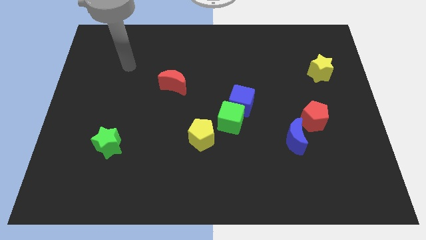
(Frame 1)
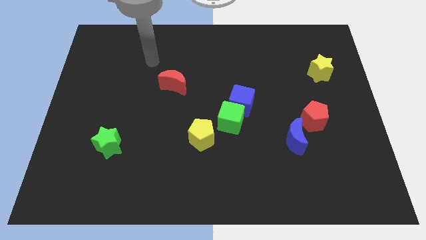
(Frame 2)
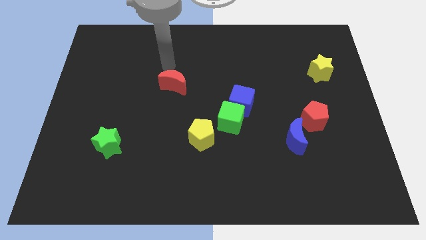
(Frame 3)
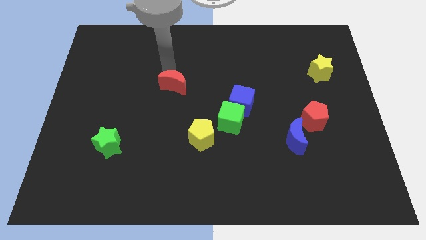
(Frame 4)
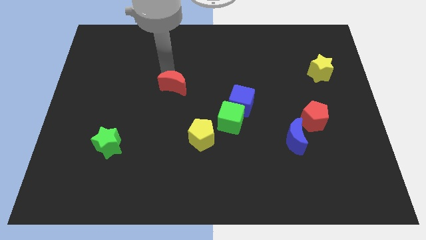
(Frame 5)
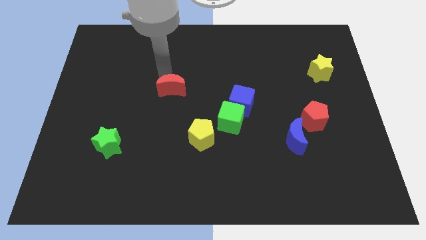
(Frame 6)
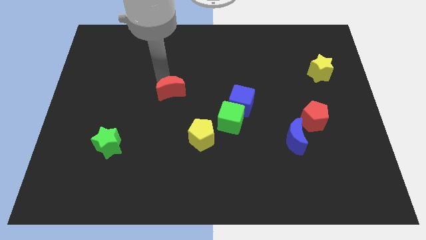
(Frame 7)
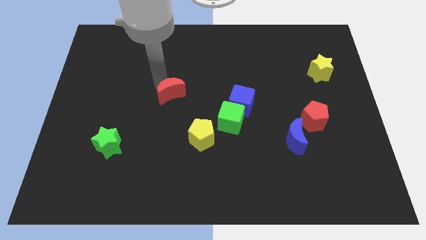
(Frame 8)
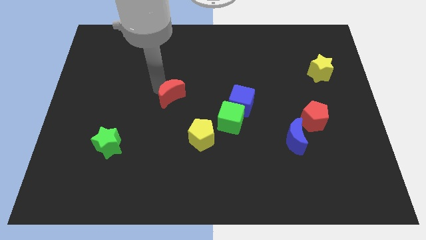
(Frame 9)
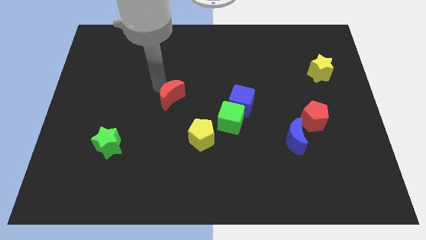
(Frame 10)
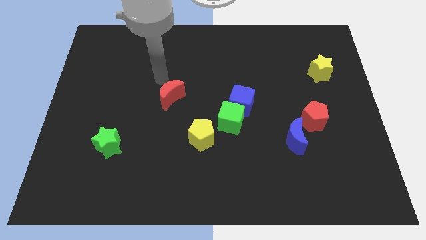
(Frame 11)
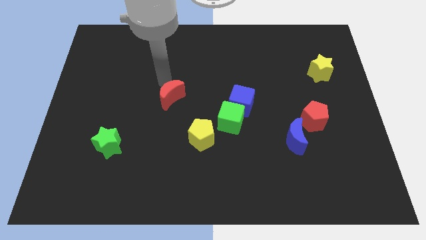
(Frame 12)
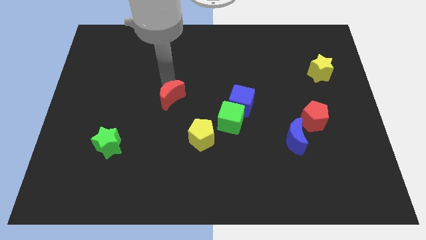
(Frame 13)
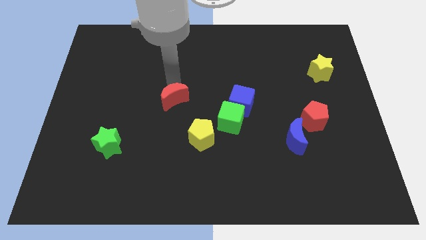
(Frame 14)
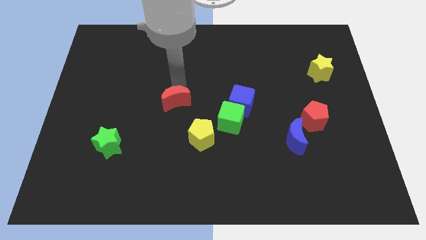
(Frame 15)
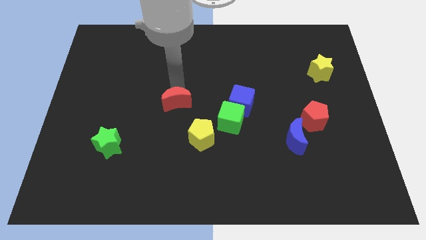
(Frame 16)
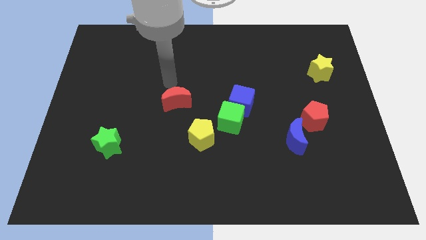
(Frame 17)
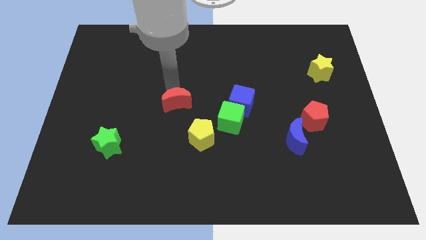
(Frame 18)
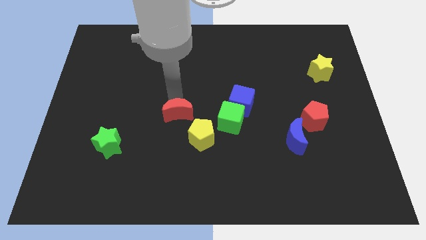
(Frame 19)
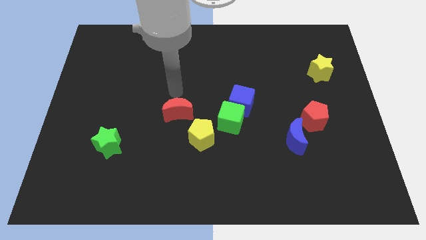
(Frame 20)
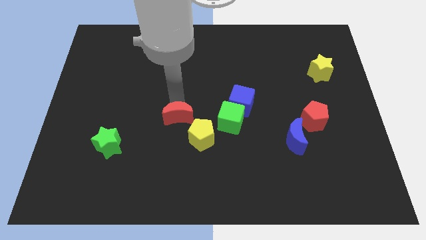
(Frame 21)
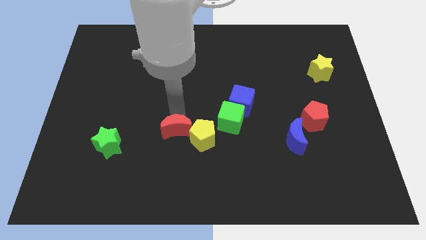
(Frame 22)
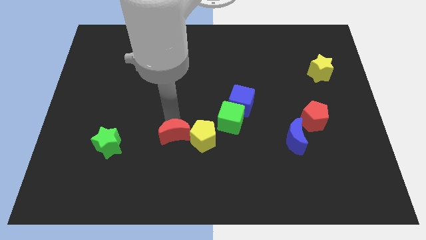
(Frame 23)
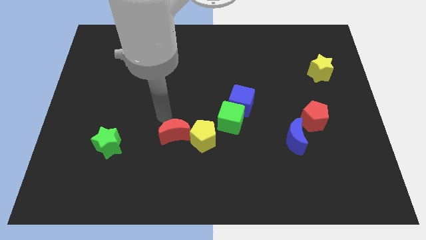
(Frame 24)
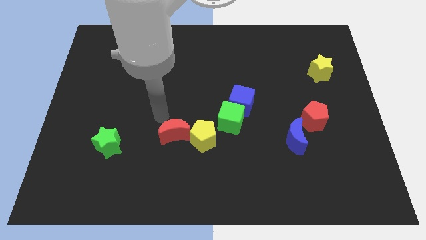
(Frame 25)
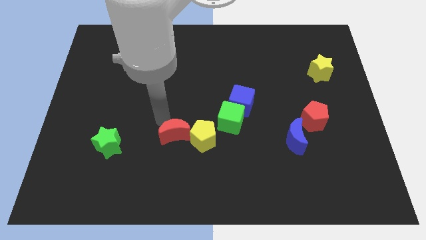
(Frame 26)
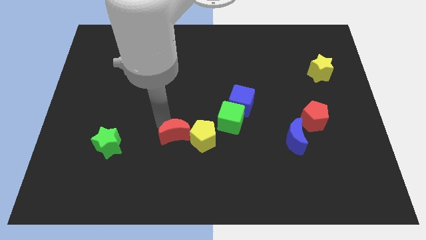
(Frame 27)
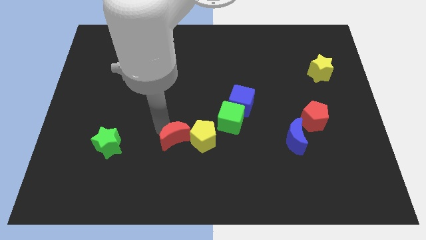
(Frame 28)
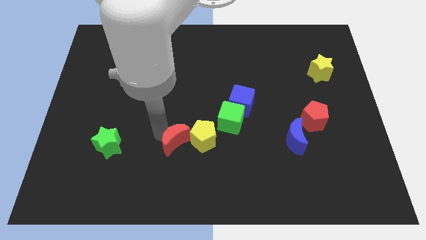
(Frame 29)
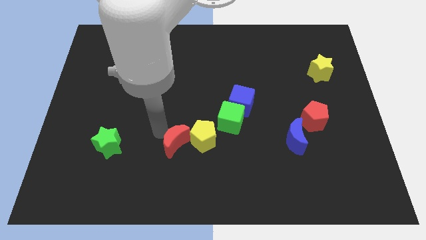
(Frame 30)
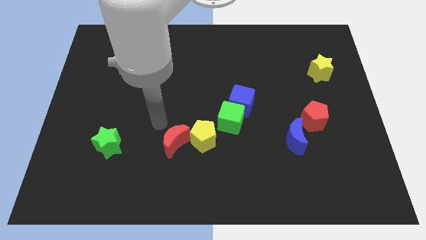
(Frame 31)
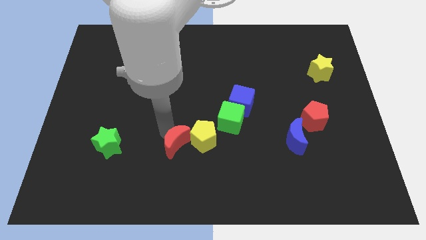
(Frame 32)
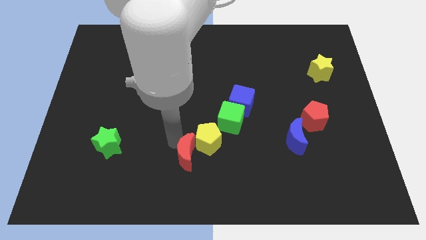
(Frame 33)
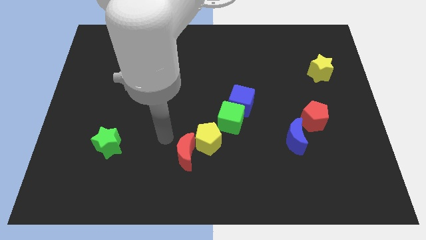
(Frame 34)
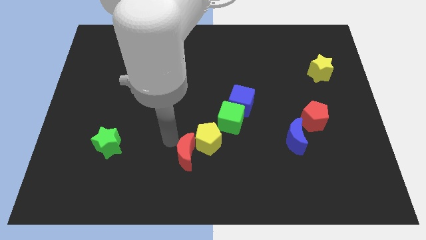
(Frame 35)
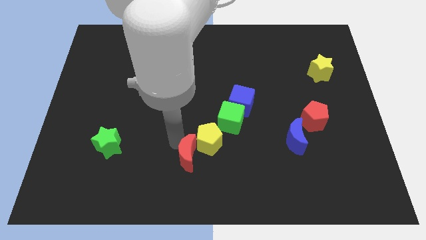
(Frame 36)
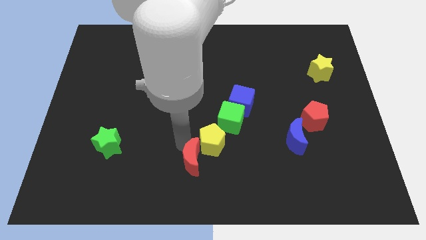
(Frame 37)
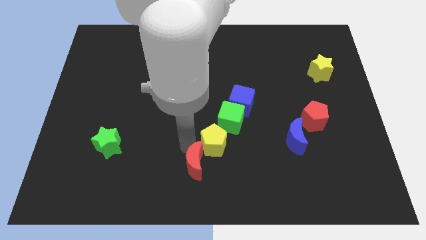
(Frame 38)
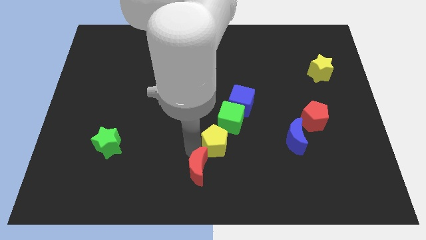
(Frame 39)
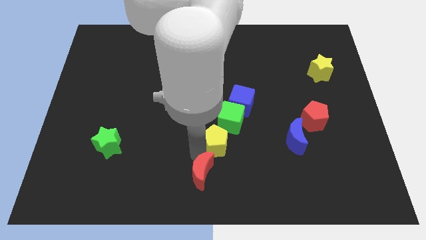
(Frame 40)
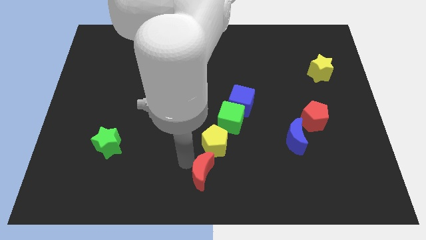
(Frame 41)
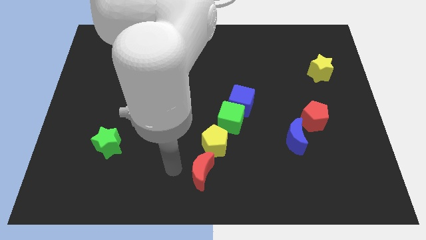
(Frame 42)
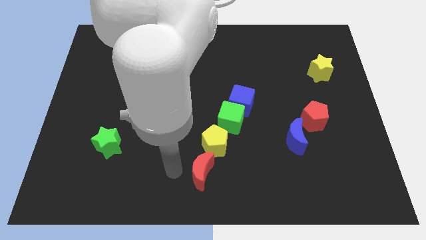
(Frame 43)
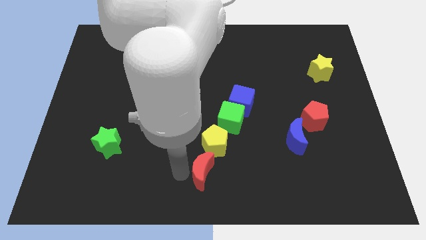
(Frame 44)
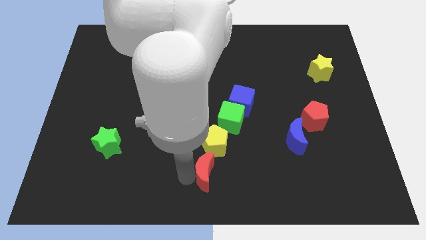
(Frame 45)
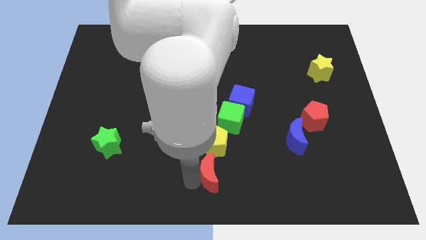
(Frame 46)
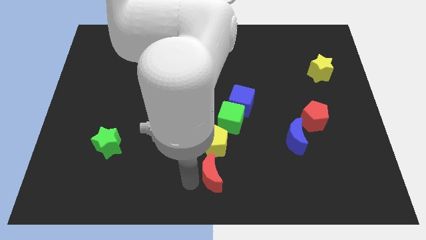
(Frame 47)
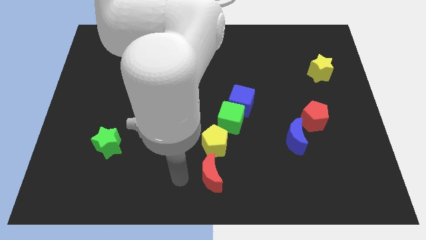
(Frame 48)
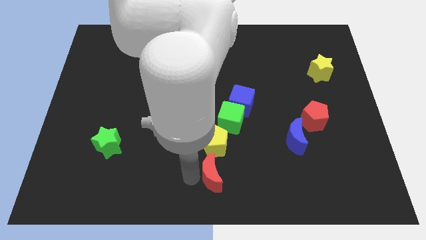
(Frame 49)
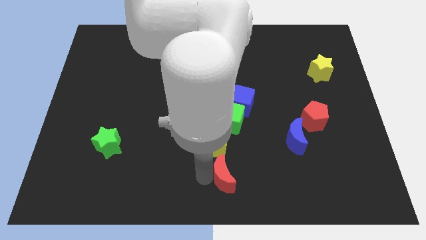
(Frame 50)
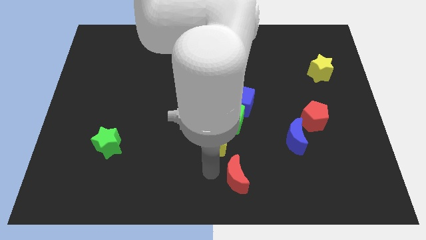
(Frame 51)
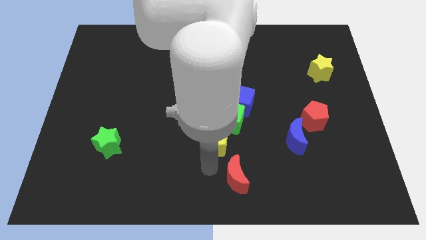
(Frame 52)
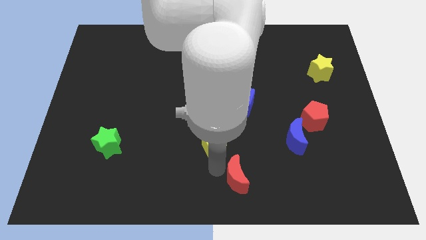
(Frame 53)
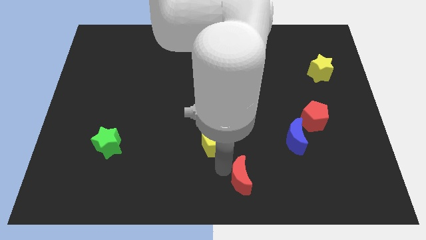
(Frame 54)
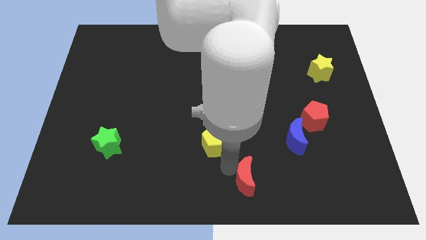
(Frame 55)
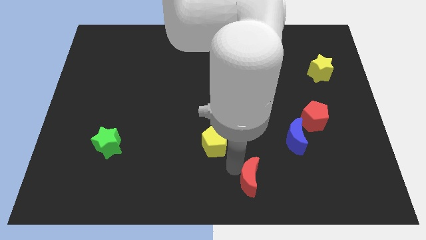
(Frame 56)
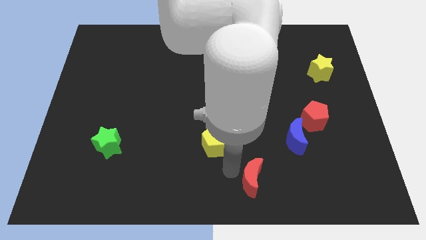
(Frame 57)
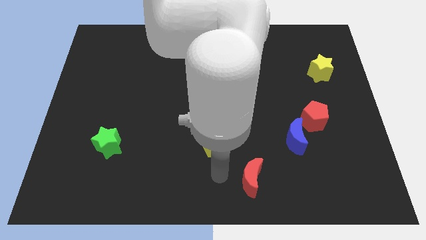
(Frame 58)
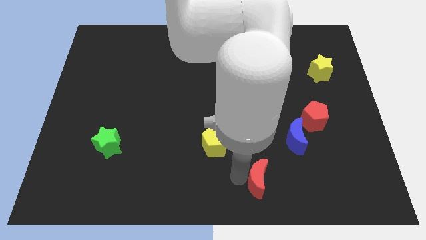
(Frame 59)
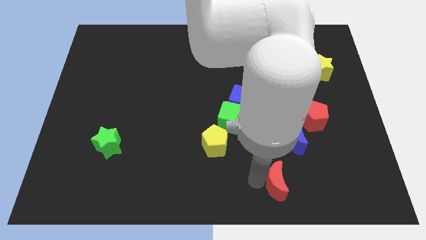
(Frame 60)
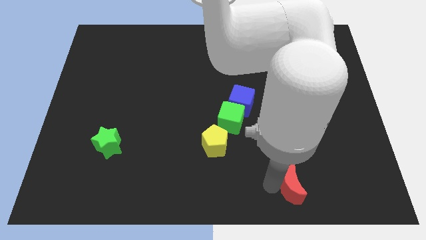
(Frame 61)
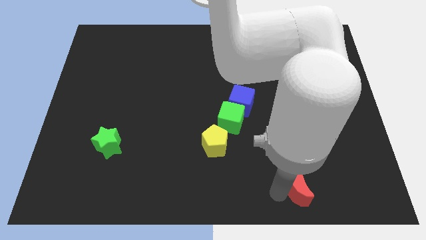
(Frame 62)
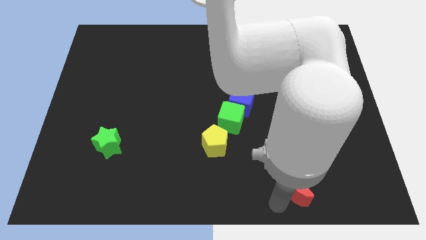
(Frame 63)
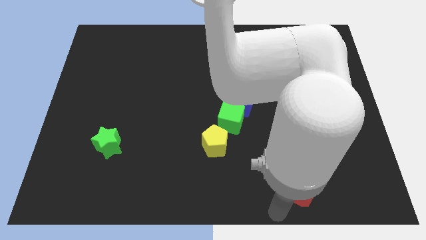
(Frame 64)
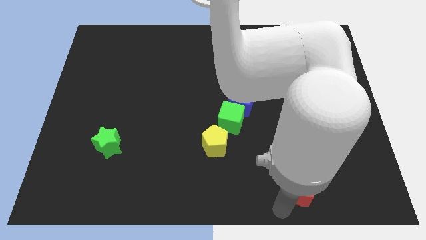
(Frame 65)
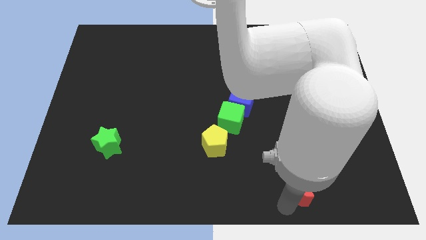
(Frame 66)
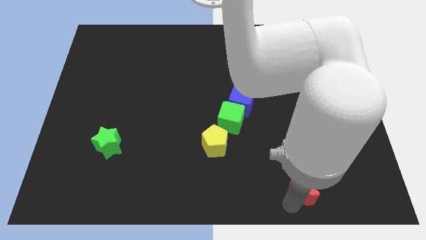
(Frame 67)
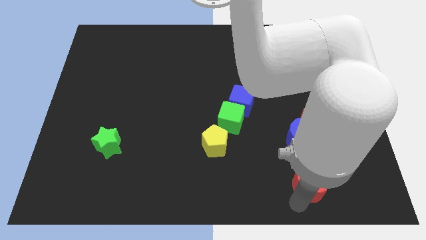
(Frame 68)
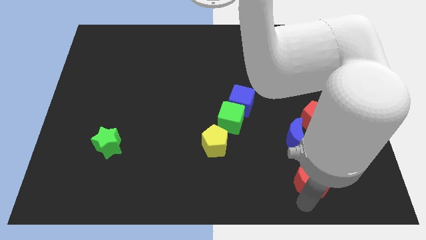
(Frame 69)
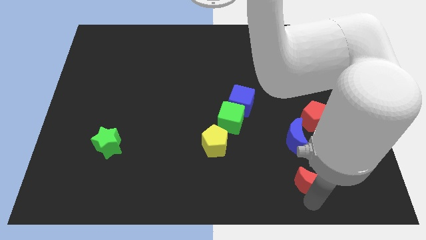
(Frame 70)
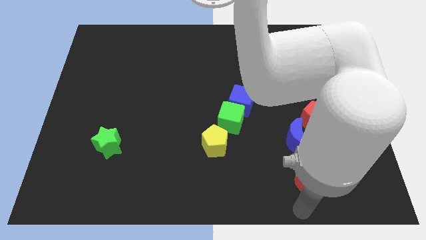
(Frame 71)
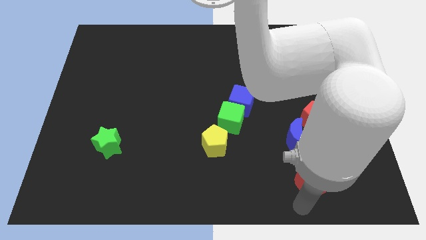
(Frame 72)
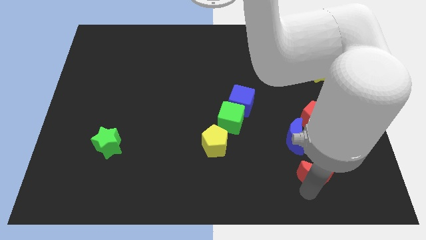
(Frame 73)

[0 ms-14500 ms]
push the red moon to the bottom right of the blue moon

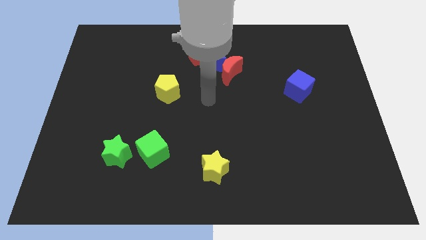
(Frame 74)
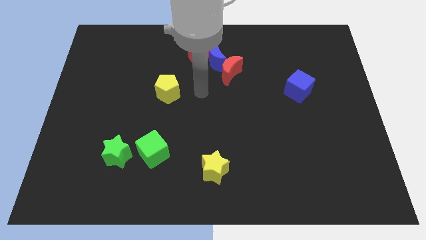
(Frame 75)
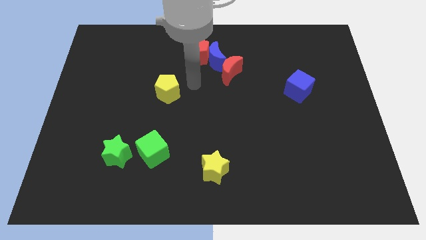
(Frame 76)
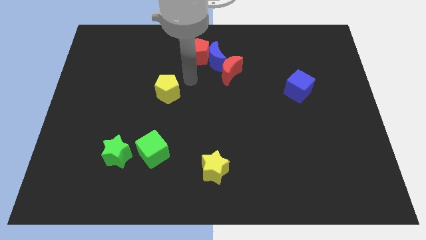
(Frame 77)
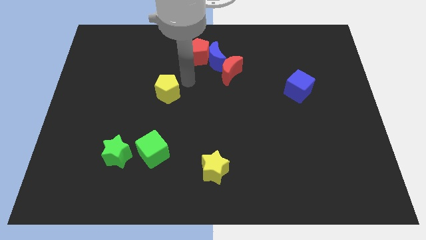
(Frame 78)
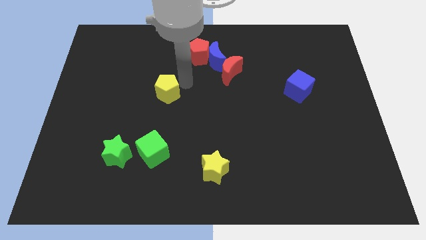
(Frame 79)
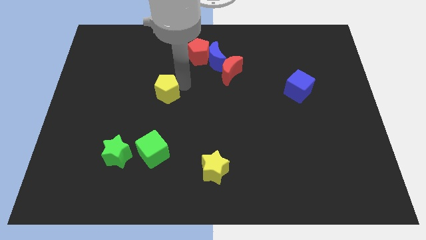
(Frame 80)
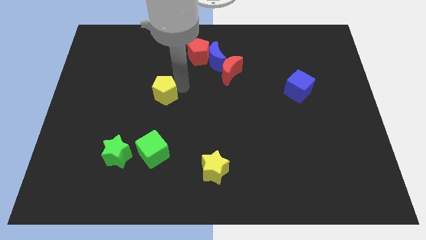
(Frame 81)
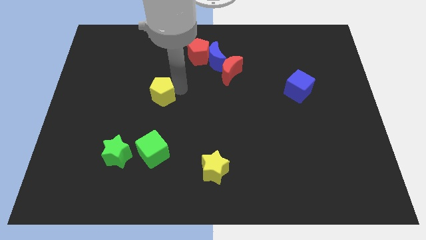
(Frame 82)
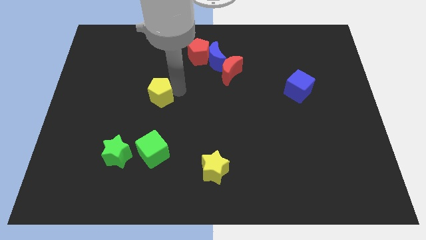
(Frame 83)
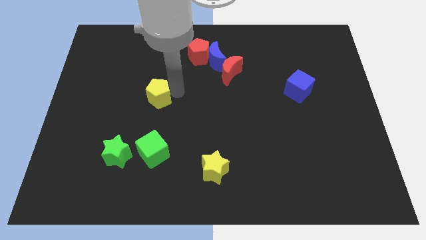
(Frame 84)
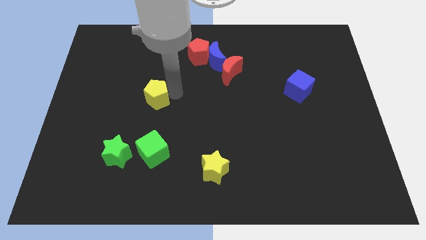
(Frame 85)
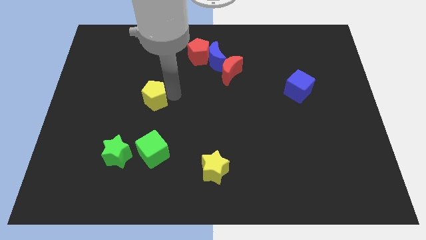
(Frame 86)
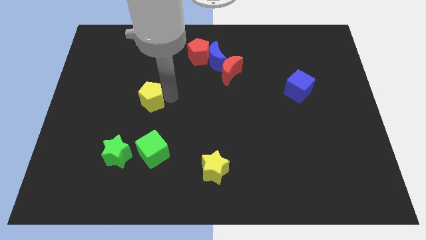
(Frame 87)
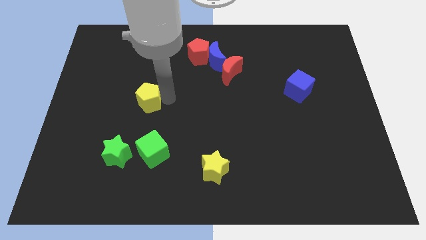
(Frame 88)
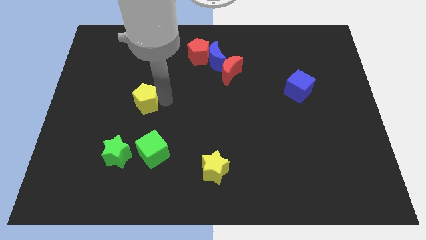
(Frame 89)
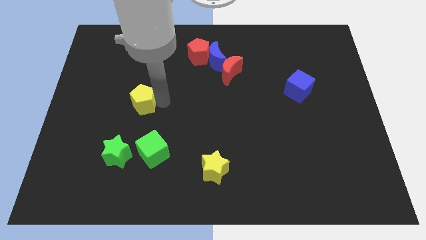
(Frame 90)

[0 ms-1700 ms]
move the yellow pentagon above the green star
